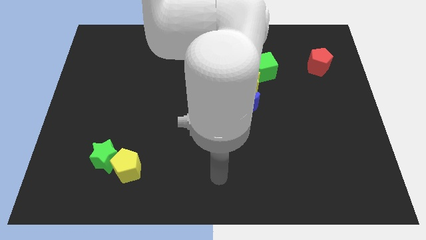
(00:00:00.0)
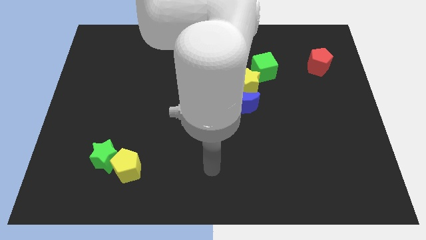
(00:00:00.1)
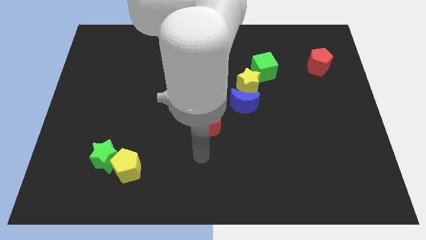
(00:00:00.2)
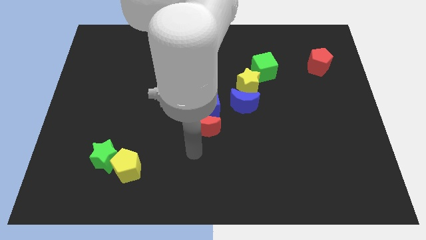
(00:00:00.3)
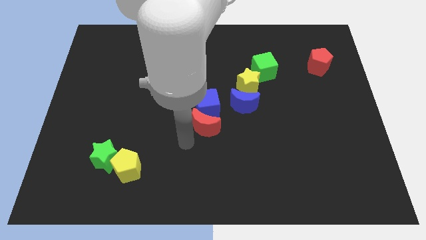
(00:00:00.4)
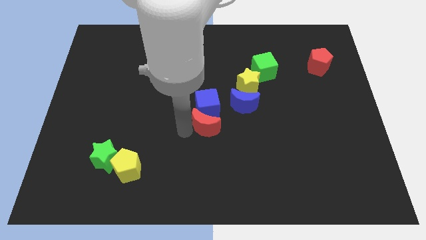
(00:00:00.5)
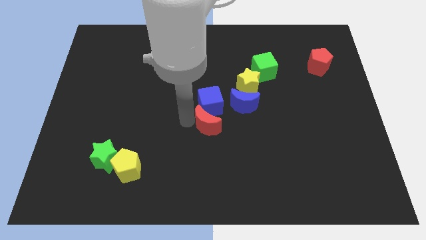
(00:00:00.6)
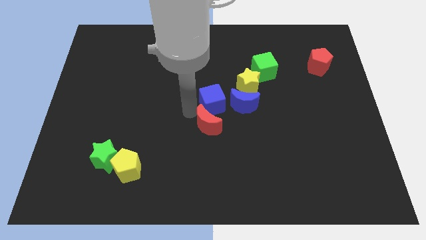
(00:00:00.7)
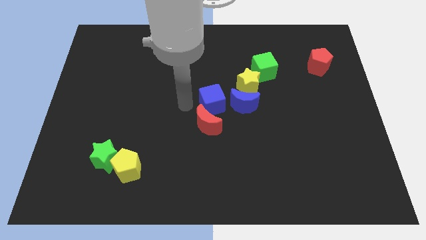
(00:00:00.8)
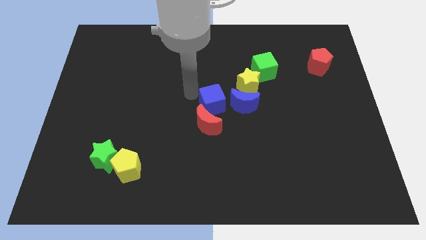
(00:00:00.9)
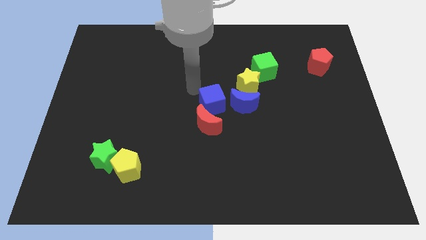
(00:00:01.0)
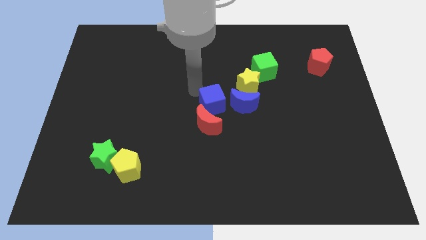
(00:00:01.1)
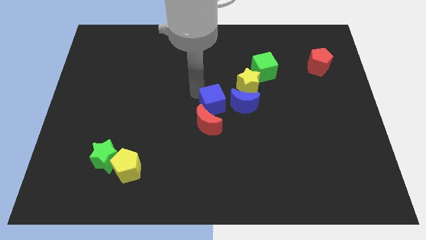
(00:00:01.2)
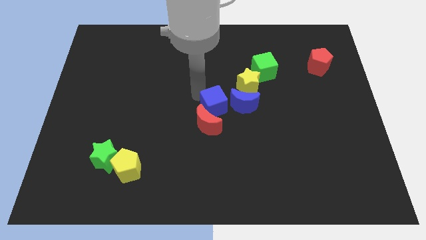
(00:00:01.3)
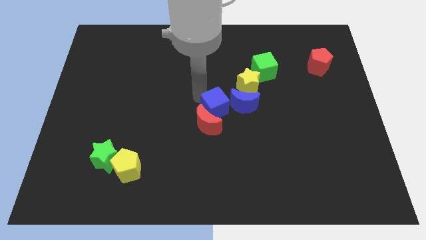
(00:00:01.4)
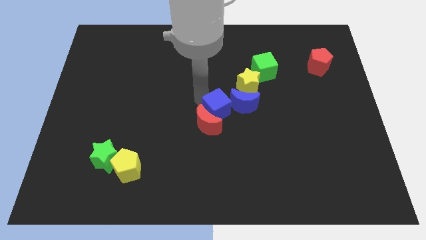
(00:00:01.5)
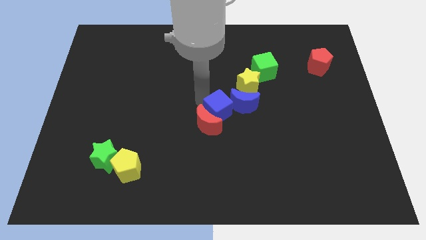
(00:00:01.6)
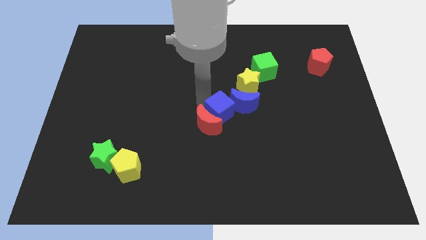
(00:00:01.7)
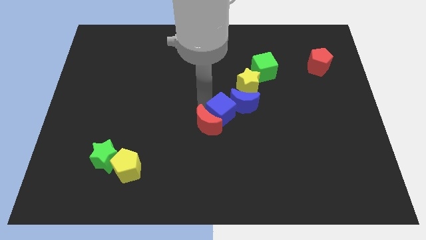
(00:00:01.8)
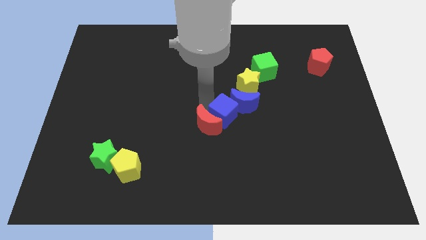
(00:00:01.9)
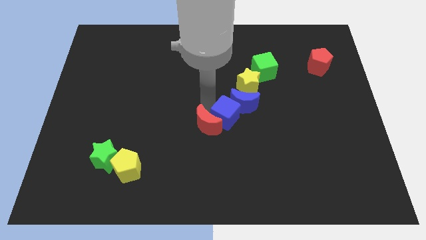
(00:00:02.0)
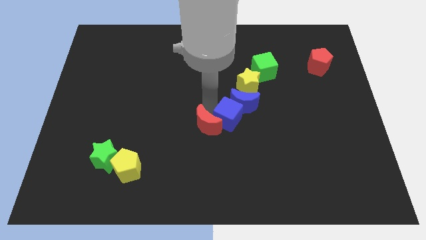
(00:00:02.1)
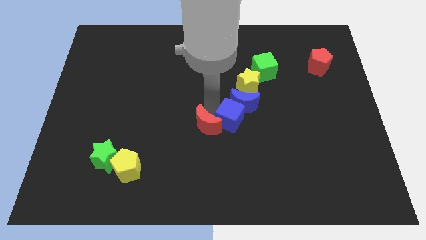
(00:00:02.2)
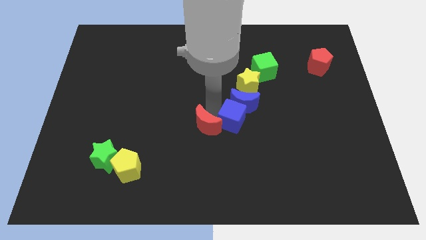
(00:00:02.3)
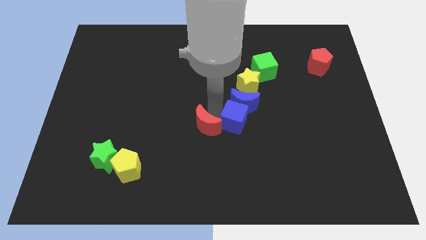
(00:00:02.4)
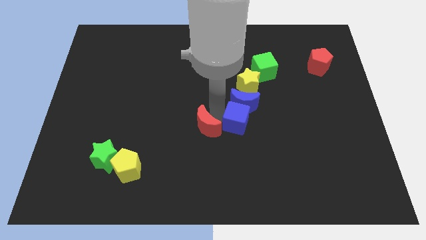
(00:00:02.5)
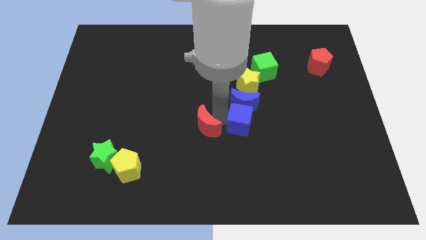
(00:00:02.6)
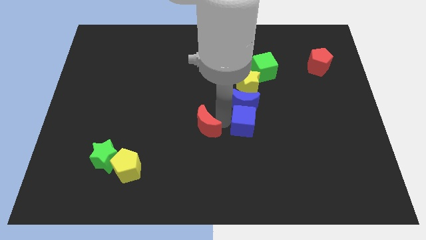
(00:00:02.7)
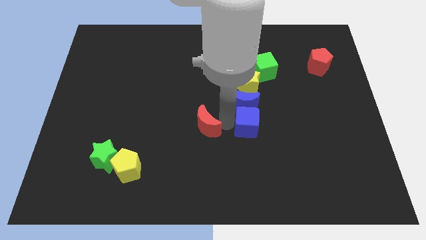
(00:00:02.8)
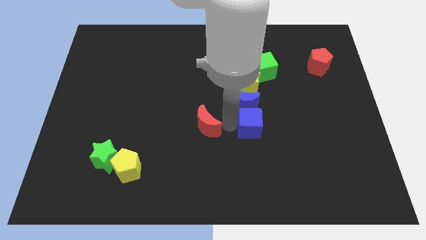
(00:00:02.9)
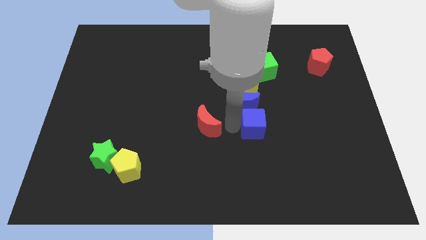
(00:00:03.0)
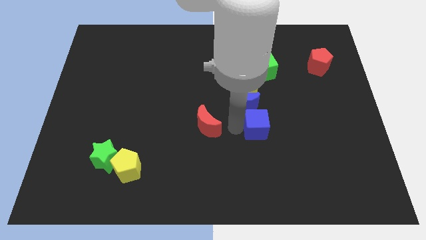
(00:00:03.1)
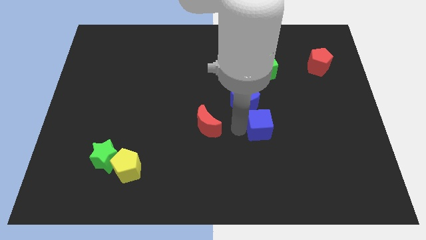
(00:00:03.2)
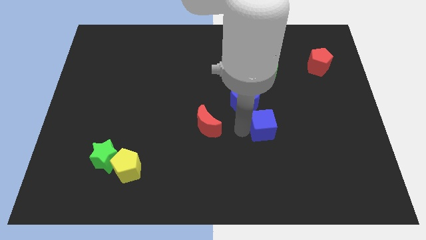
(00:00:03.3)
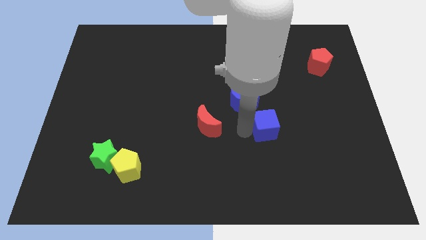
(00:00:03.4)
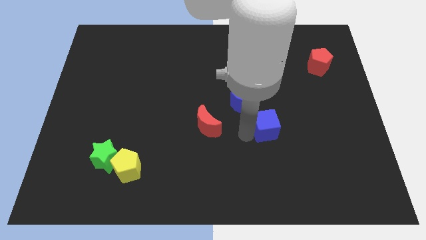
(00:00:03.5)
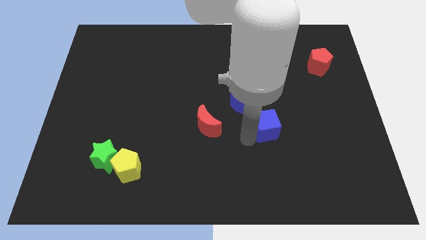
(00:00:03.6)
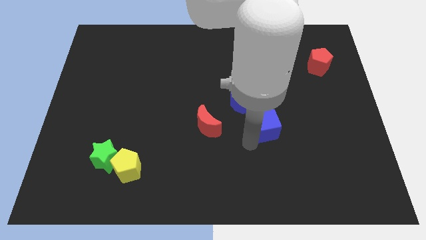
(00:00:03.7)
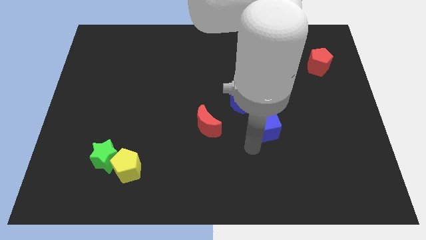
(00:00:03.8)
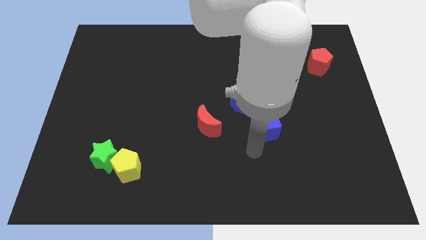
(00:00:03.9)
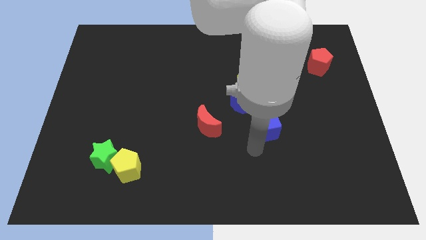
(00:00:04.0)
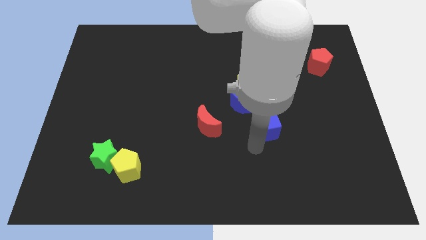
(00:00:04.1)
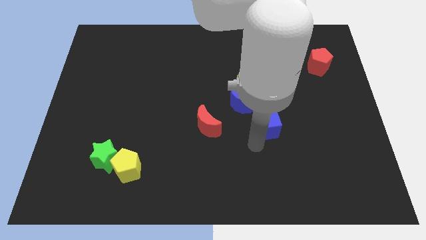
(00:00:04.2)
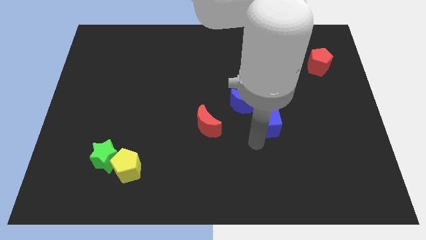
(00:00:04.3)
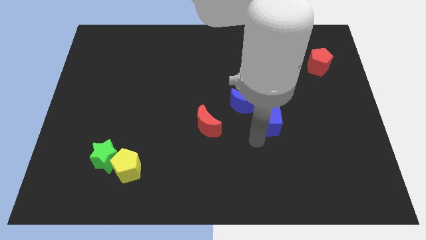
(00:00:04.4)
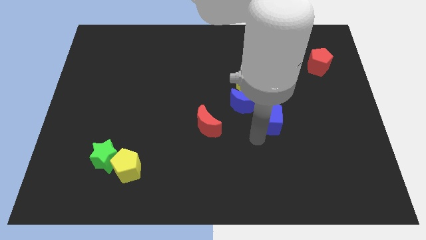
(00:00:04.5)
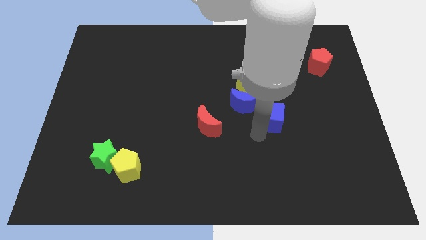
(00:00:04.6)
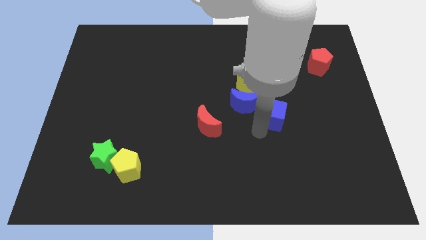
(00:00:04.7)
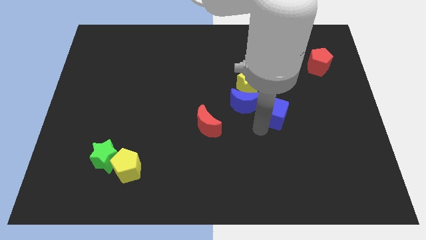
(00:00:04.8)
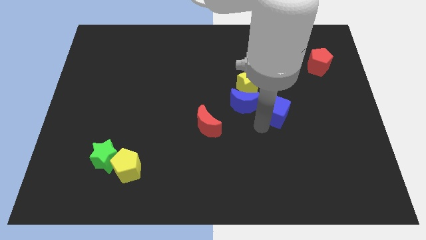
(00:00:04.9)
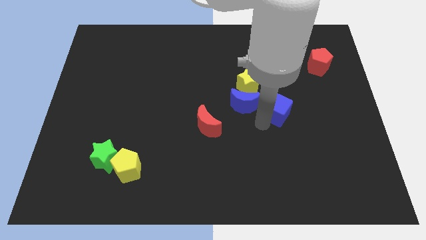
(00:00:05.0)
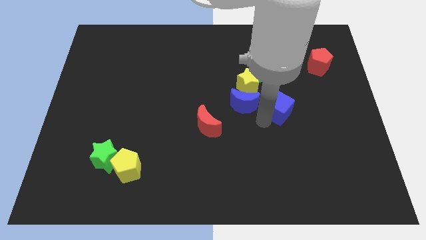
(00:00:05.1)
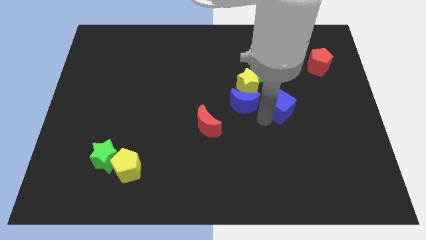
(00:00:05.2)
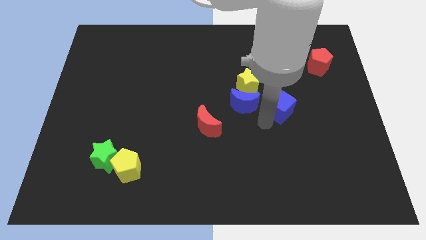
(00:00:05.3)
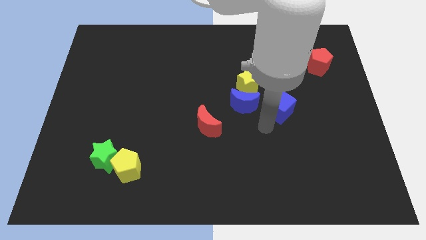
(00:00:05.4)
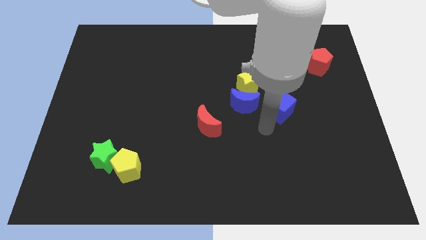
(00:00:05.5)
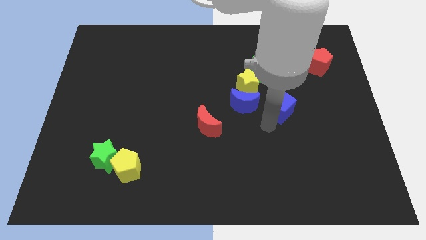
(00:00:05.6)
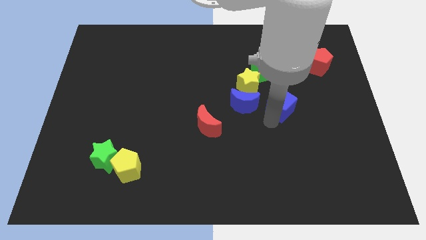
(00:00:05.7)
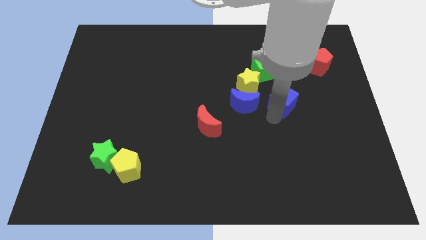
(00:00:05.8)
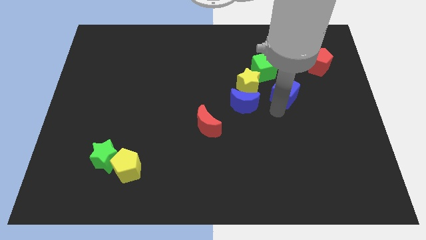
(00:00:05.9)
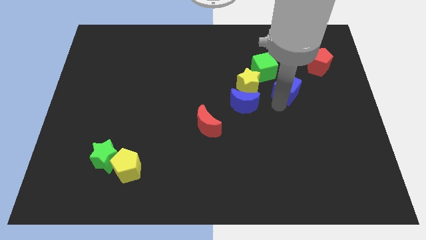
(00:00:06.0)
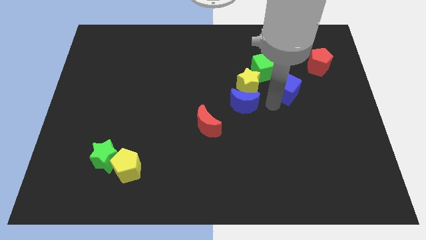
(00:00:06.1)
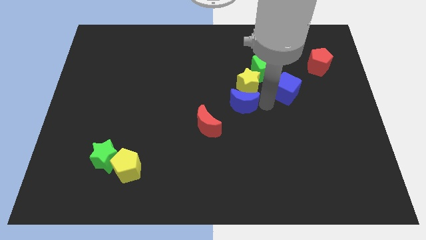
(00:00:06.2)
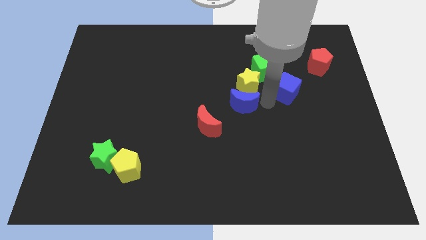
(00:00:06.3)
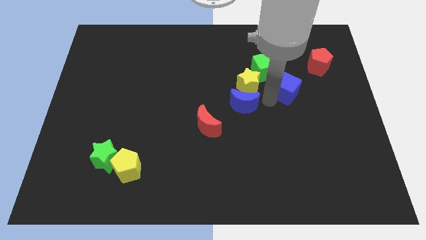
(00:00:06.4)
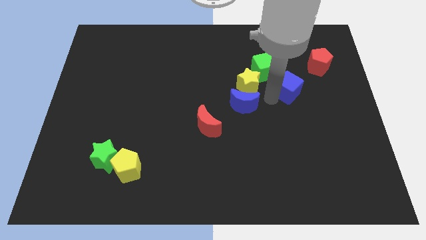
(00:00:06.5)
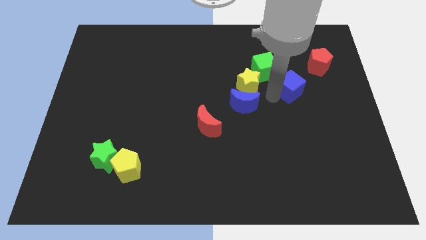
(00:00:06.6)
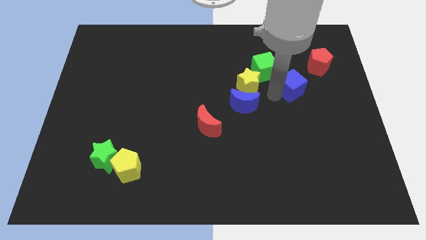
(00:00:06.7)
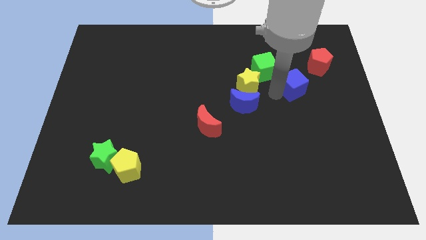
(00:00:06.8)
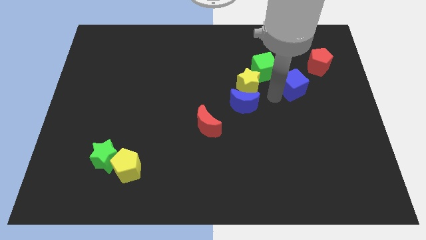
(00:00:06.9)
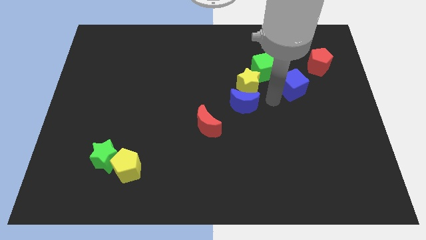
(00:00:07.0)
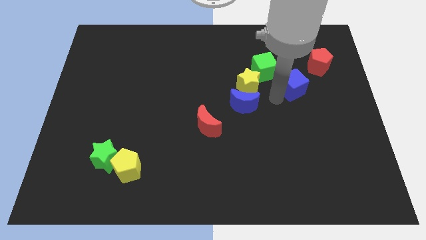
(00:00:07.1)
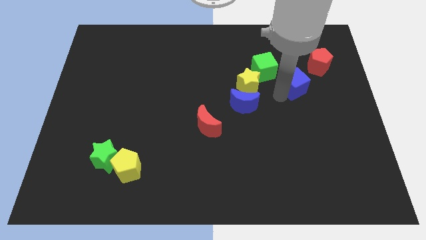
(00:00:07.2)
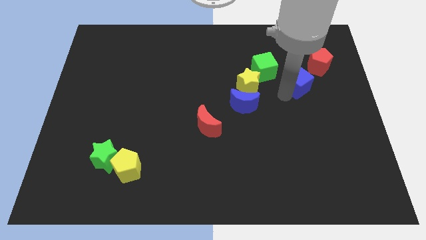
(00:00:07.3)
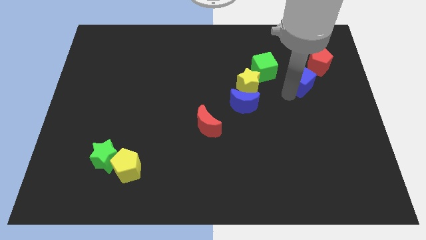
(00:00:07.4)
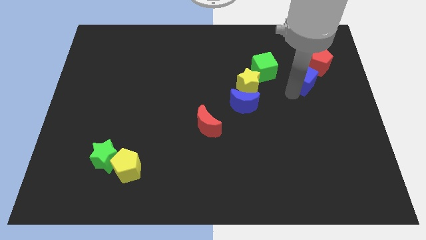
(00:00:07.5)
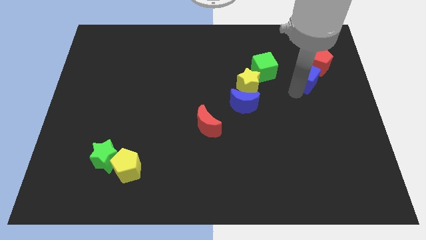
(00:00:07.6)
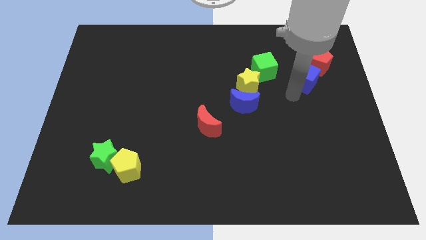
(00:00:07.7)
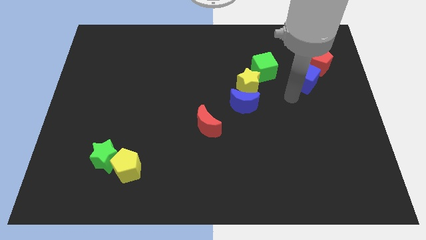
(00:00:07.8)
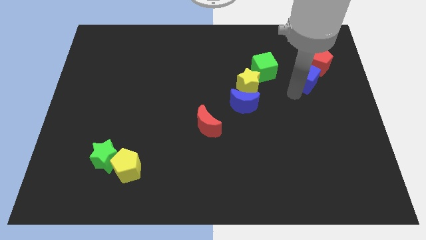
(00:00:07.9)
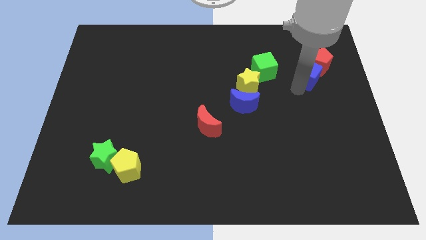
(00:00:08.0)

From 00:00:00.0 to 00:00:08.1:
slide the blue cube next to the red pentagon
